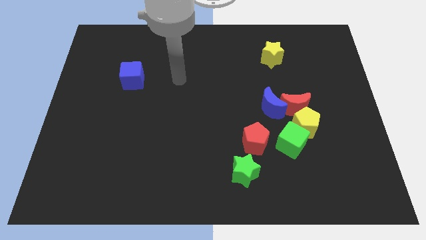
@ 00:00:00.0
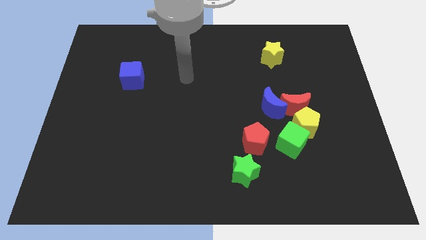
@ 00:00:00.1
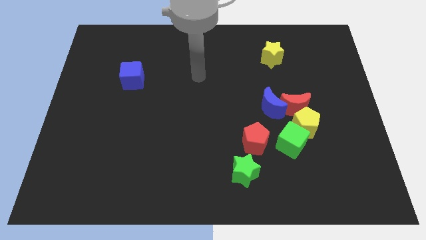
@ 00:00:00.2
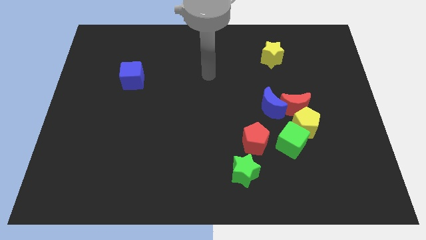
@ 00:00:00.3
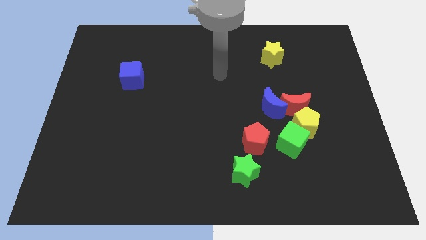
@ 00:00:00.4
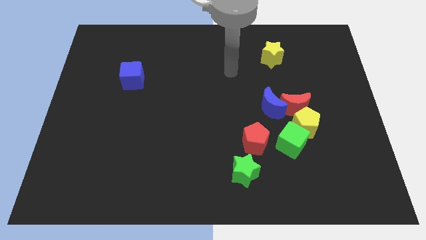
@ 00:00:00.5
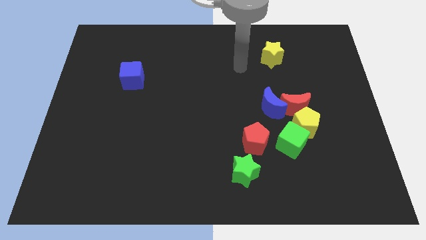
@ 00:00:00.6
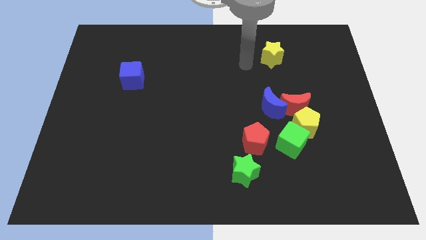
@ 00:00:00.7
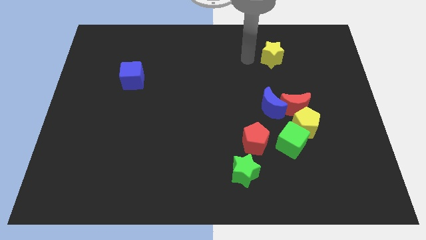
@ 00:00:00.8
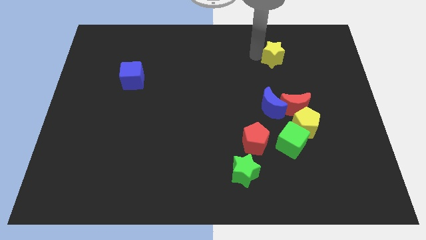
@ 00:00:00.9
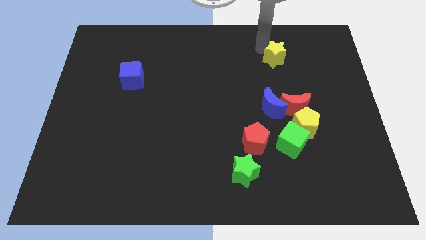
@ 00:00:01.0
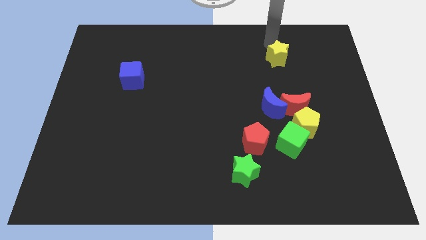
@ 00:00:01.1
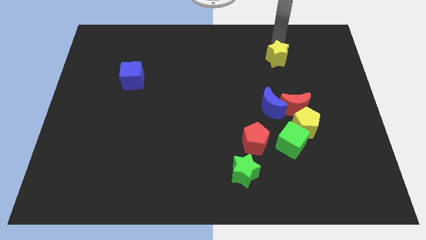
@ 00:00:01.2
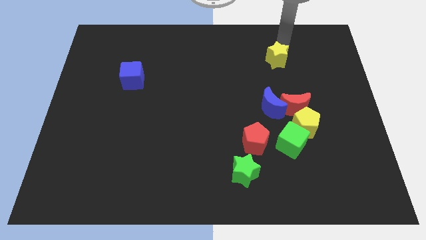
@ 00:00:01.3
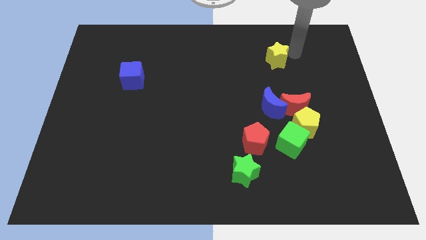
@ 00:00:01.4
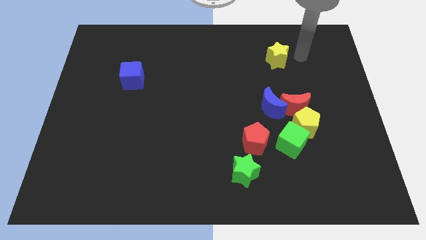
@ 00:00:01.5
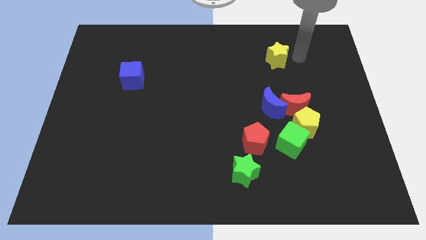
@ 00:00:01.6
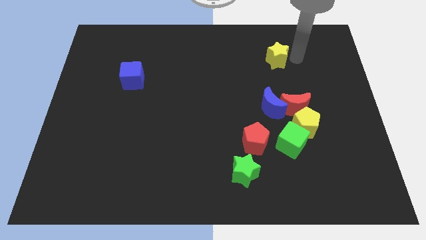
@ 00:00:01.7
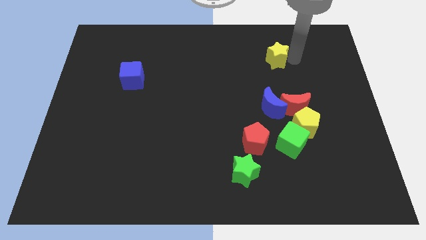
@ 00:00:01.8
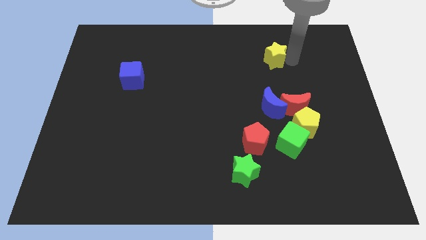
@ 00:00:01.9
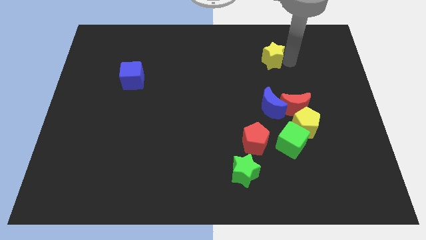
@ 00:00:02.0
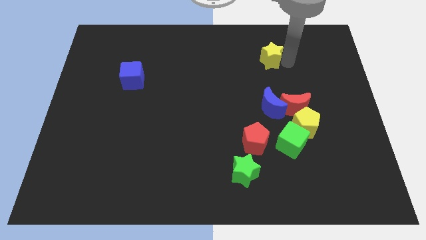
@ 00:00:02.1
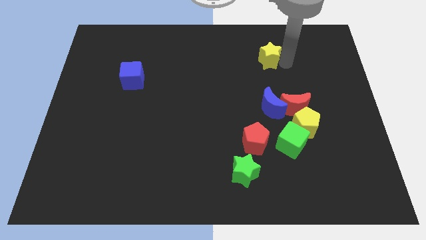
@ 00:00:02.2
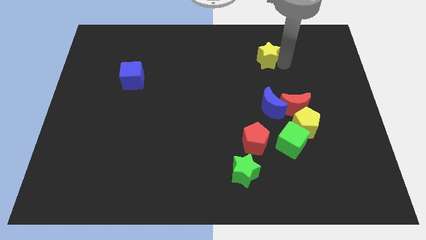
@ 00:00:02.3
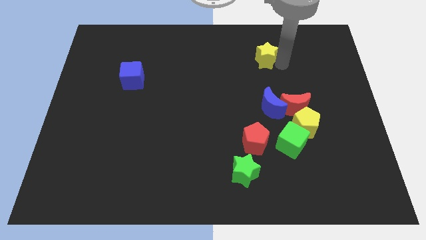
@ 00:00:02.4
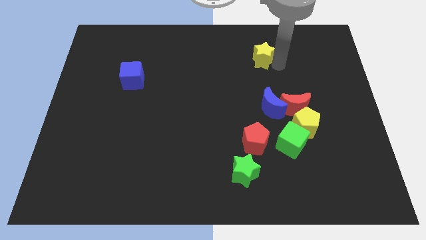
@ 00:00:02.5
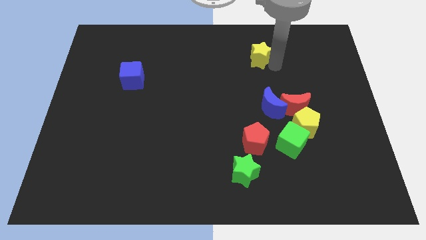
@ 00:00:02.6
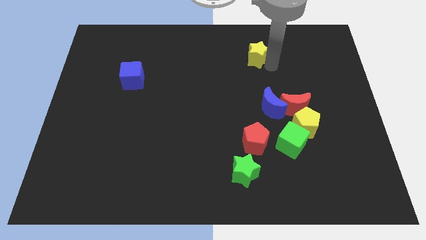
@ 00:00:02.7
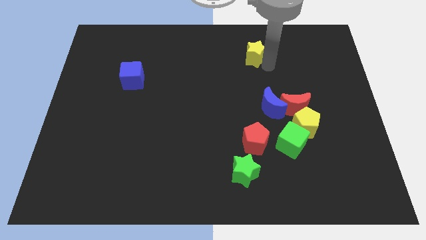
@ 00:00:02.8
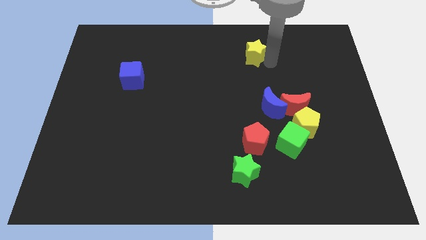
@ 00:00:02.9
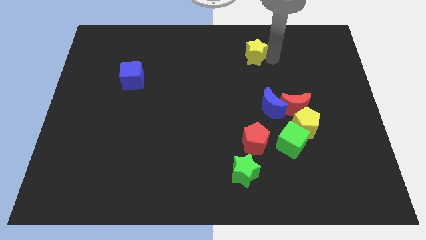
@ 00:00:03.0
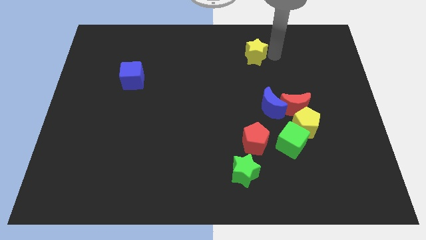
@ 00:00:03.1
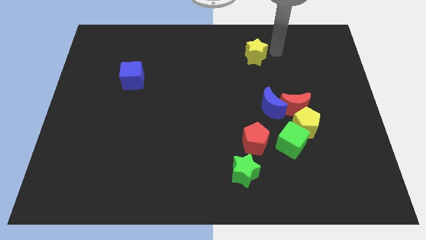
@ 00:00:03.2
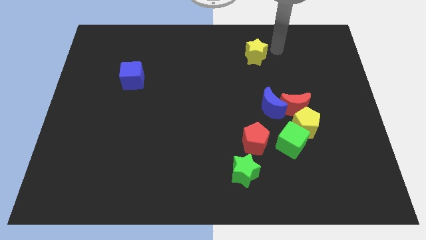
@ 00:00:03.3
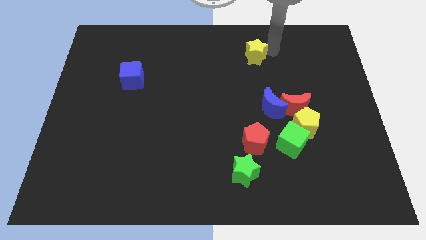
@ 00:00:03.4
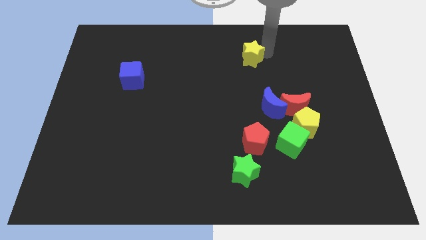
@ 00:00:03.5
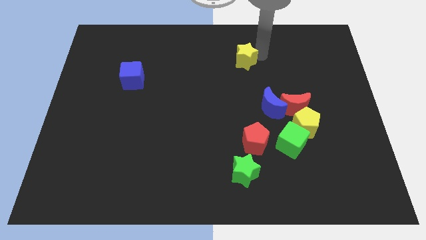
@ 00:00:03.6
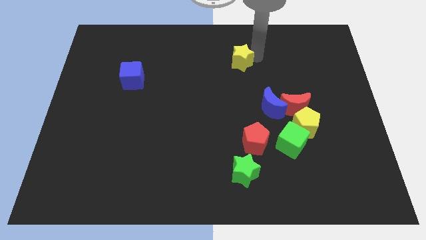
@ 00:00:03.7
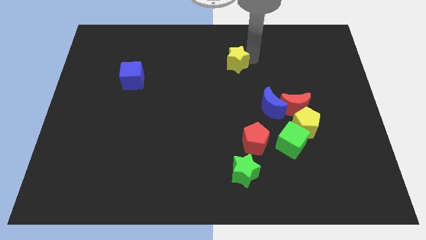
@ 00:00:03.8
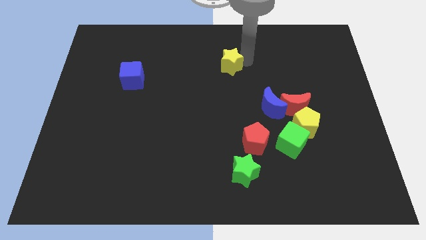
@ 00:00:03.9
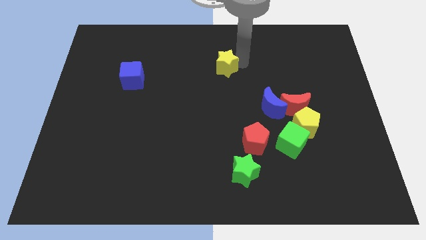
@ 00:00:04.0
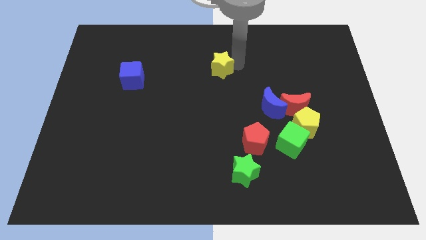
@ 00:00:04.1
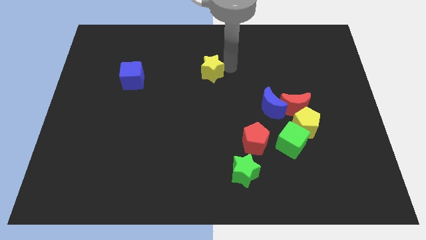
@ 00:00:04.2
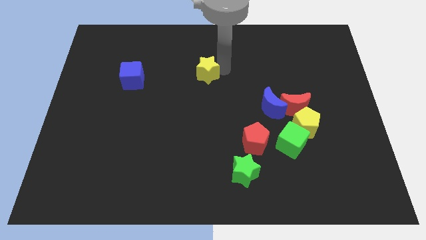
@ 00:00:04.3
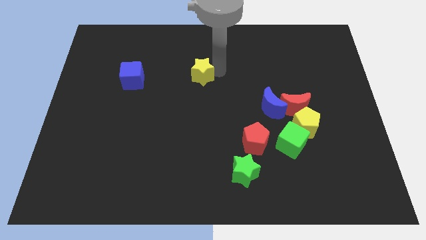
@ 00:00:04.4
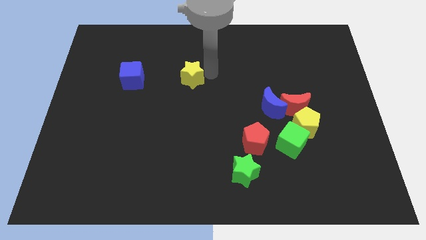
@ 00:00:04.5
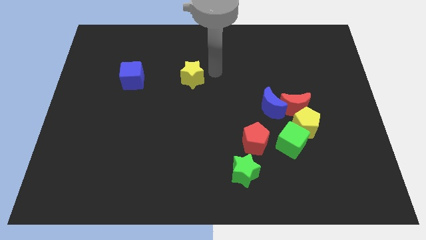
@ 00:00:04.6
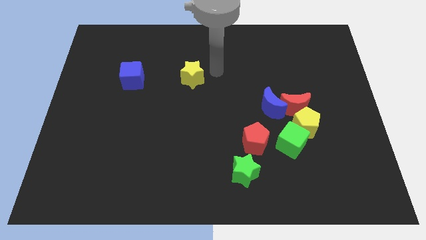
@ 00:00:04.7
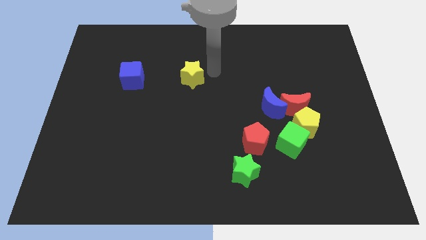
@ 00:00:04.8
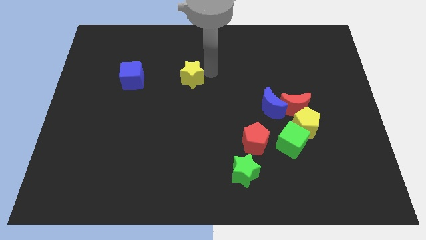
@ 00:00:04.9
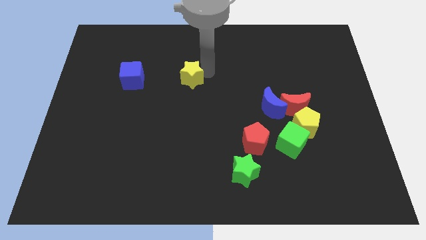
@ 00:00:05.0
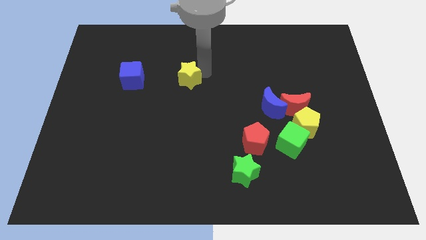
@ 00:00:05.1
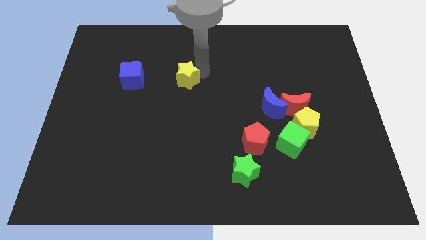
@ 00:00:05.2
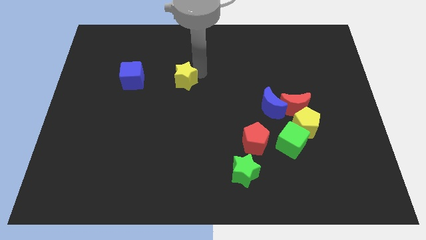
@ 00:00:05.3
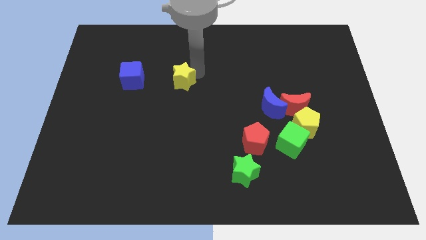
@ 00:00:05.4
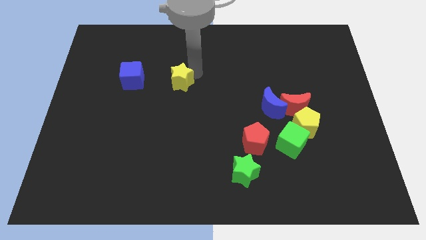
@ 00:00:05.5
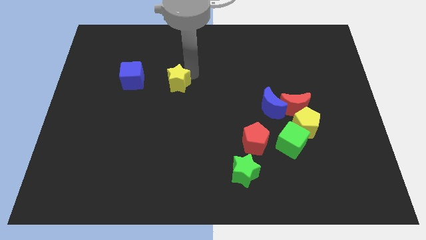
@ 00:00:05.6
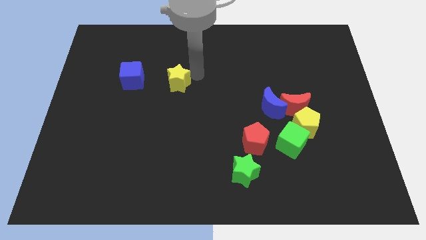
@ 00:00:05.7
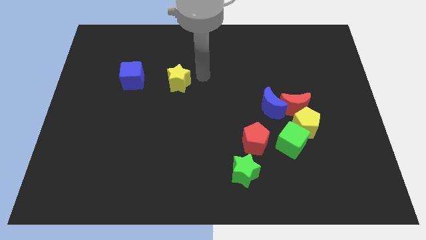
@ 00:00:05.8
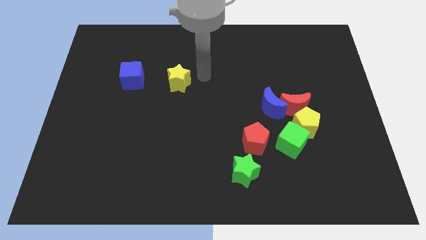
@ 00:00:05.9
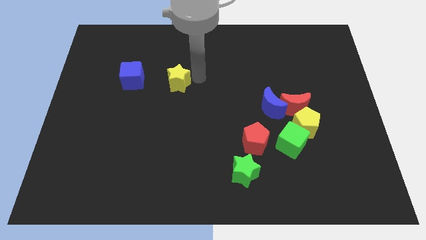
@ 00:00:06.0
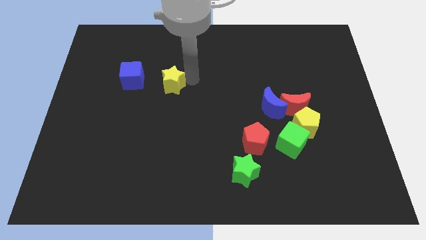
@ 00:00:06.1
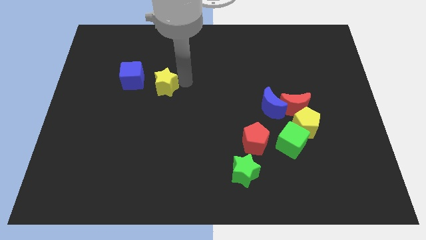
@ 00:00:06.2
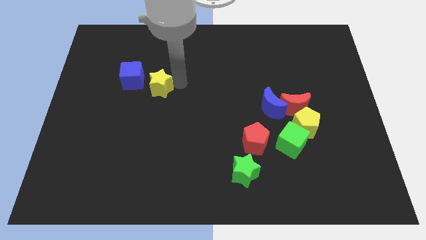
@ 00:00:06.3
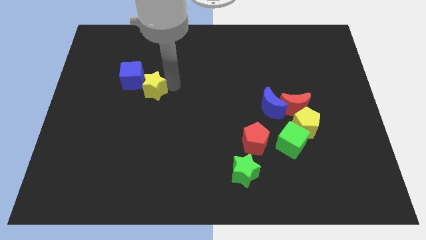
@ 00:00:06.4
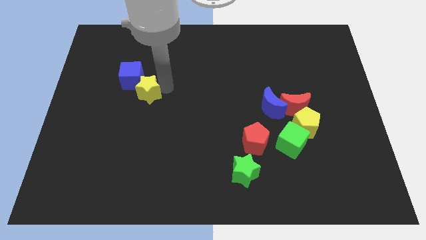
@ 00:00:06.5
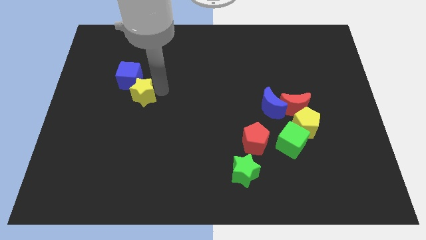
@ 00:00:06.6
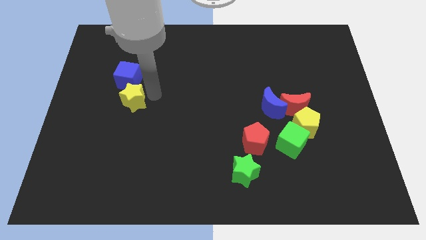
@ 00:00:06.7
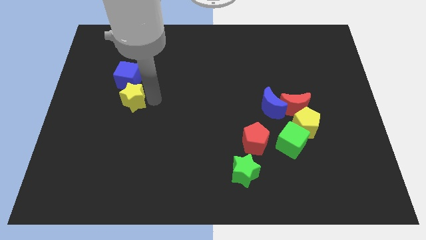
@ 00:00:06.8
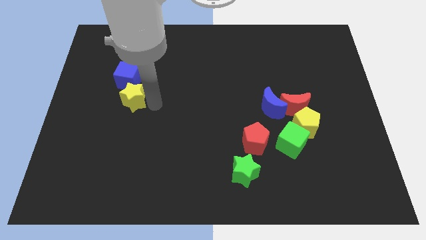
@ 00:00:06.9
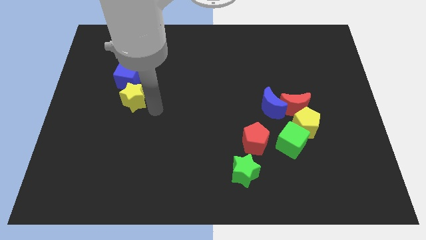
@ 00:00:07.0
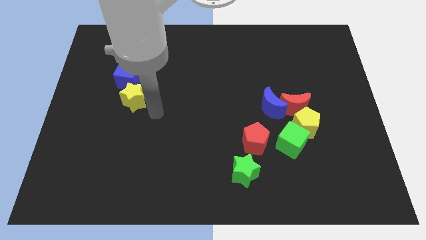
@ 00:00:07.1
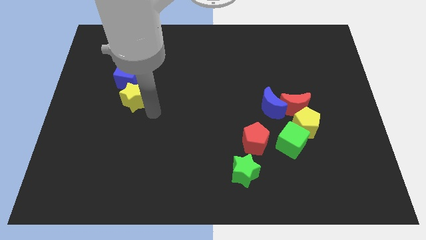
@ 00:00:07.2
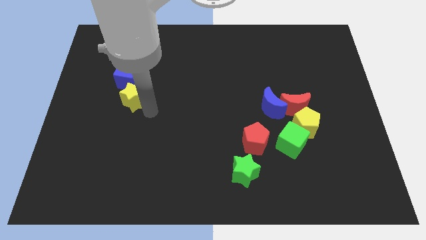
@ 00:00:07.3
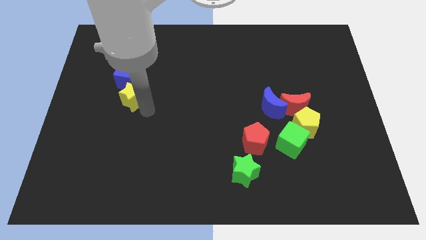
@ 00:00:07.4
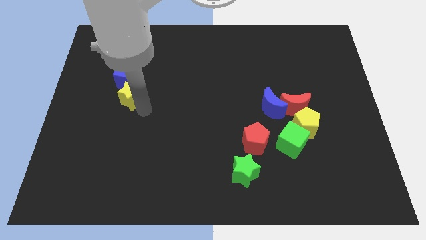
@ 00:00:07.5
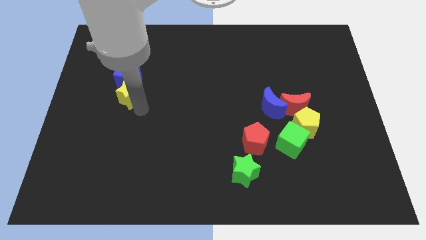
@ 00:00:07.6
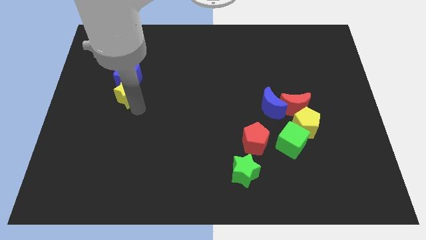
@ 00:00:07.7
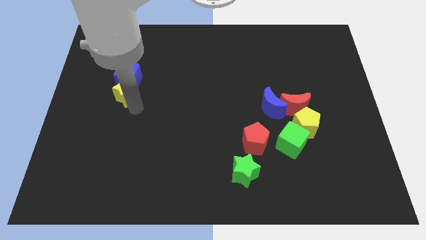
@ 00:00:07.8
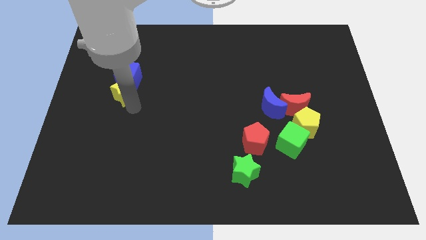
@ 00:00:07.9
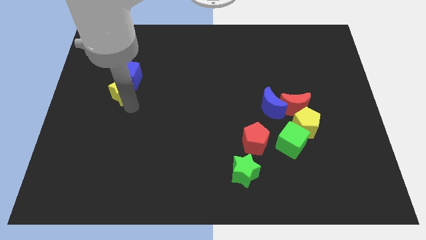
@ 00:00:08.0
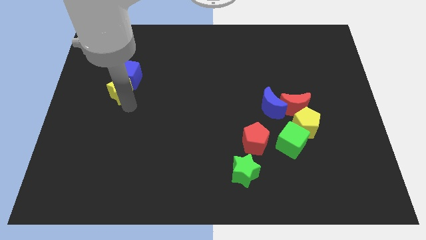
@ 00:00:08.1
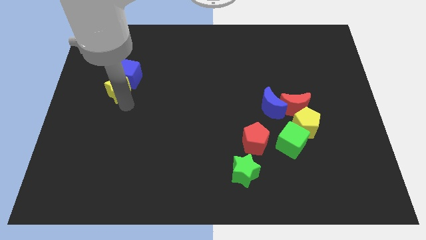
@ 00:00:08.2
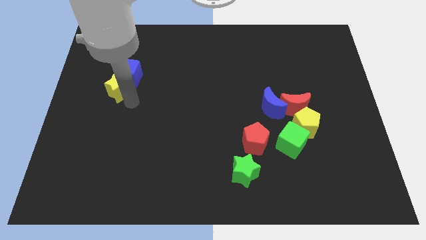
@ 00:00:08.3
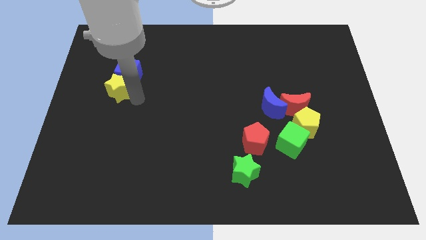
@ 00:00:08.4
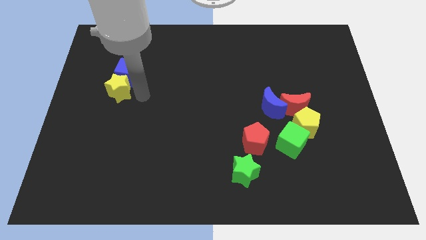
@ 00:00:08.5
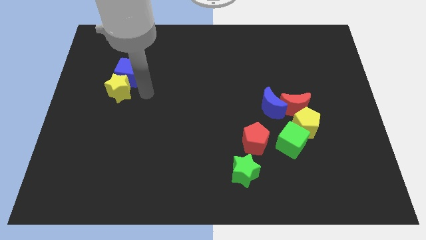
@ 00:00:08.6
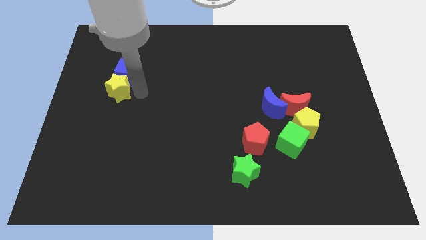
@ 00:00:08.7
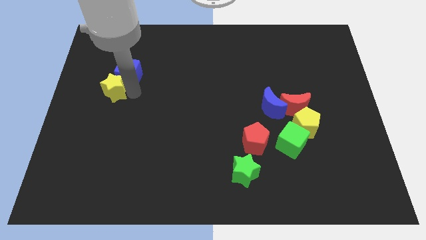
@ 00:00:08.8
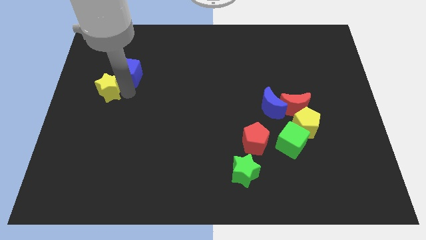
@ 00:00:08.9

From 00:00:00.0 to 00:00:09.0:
slide the yellow star to the left side
